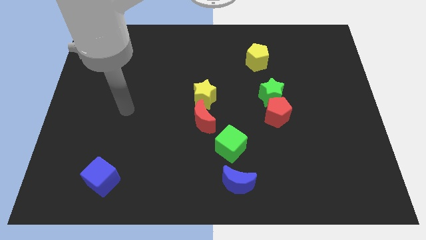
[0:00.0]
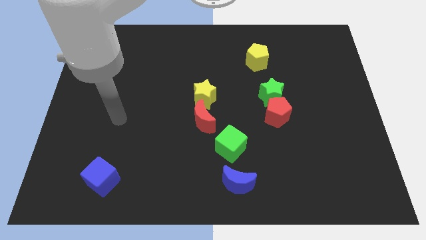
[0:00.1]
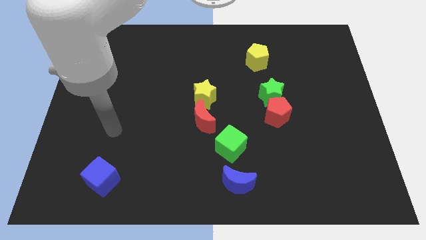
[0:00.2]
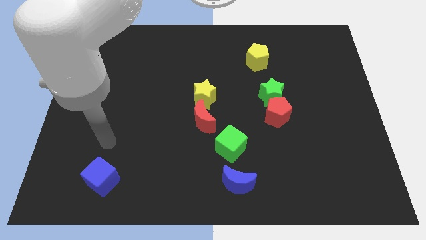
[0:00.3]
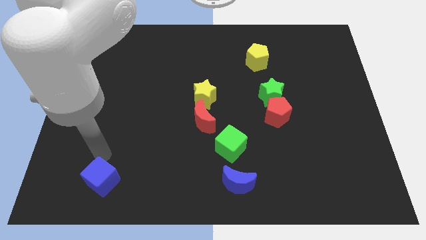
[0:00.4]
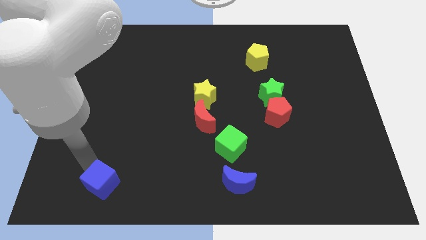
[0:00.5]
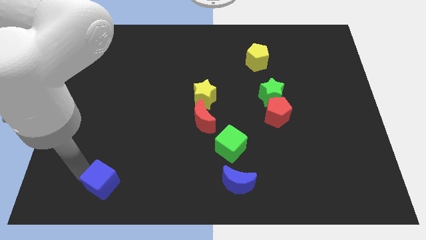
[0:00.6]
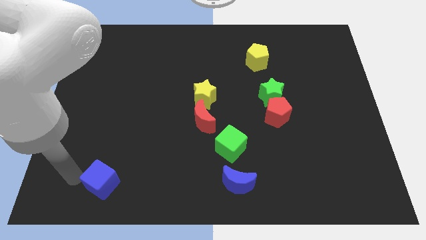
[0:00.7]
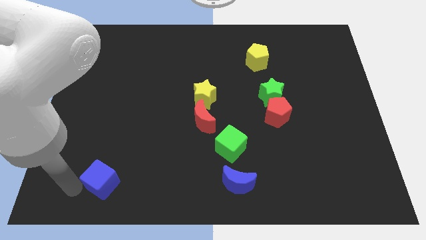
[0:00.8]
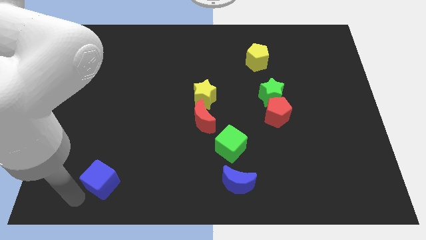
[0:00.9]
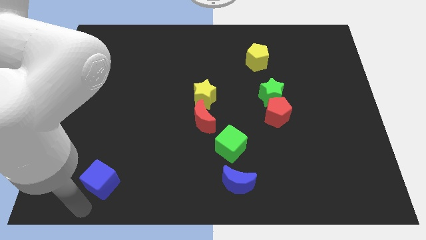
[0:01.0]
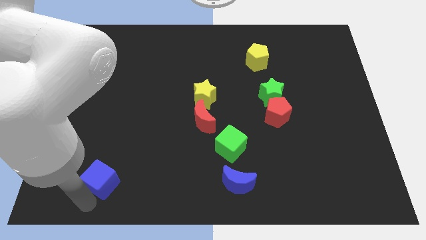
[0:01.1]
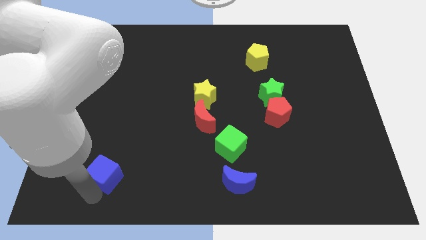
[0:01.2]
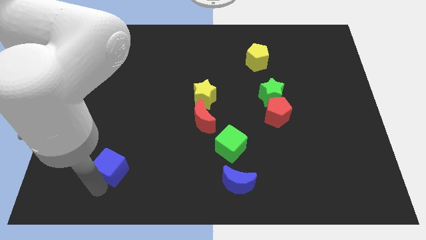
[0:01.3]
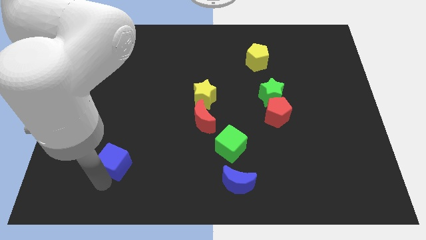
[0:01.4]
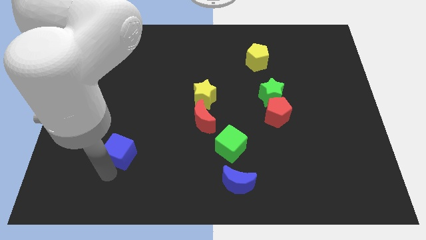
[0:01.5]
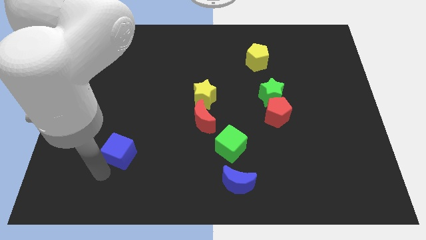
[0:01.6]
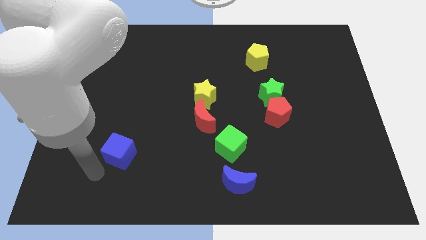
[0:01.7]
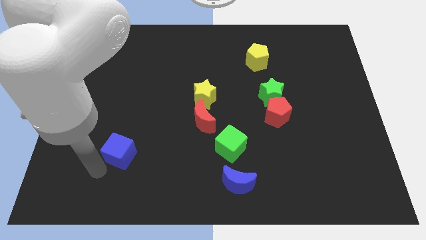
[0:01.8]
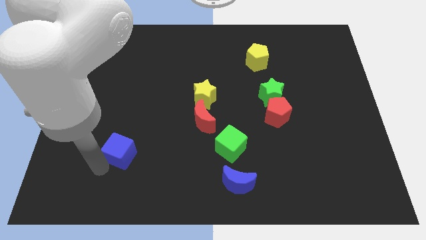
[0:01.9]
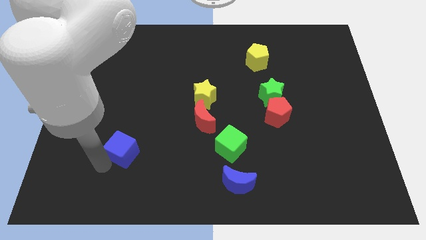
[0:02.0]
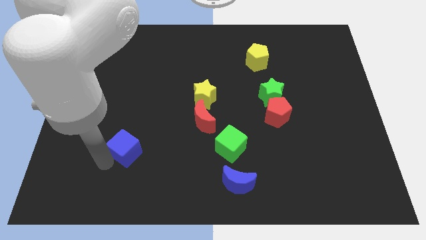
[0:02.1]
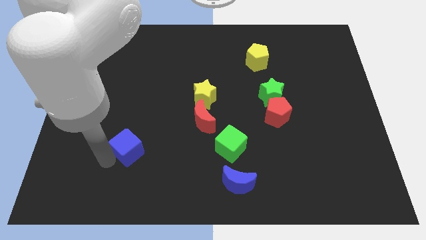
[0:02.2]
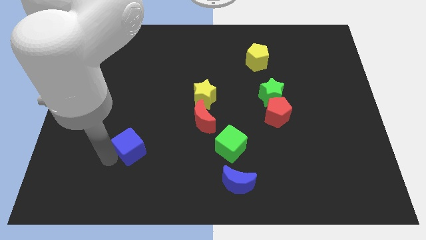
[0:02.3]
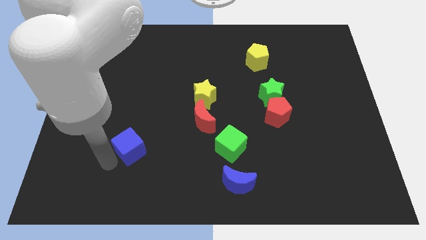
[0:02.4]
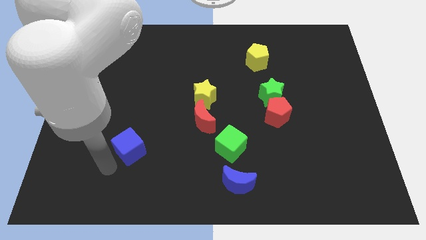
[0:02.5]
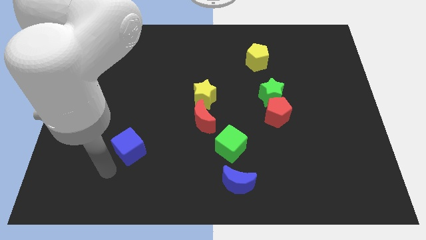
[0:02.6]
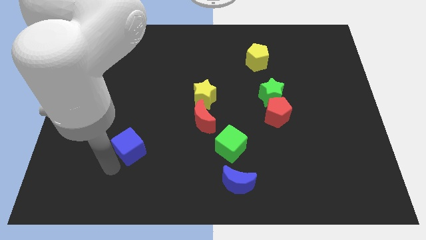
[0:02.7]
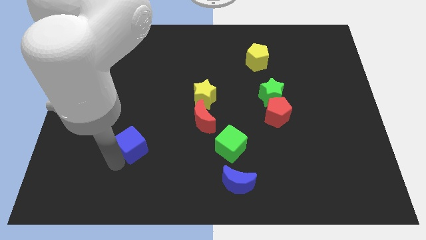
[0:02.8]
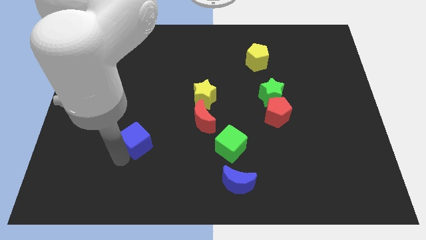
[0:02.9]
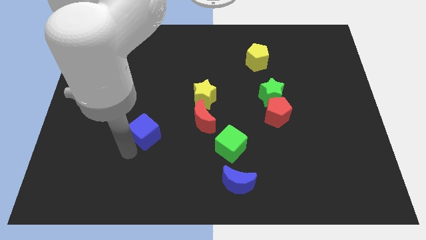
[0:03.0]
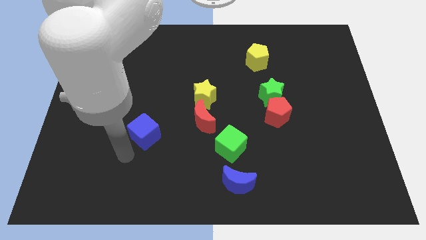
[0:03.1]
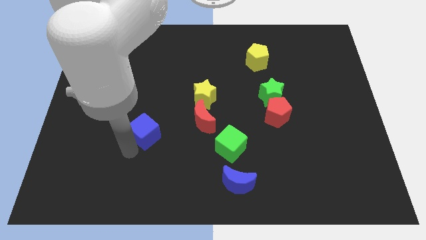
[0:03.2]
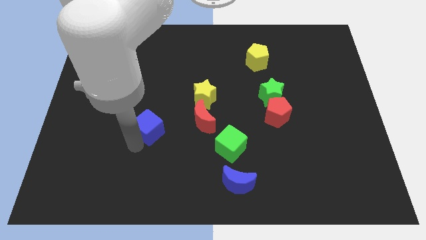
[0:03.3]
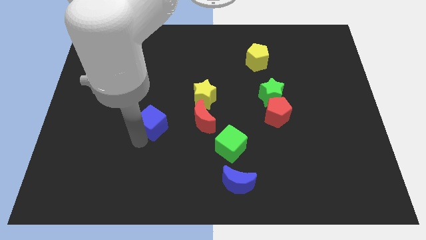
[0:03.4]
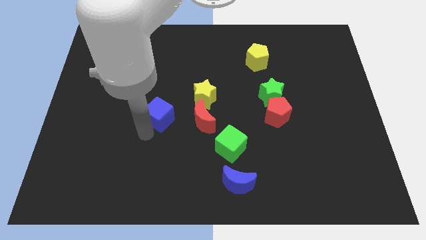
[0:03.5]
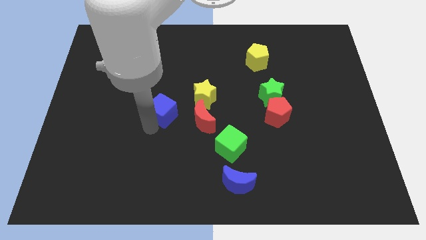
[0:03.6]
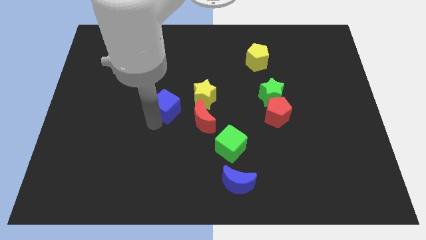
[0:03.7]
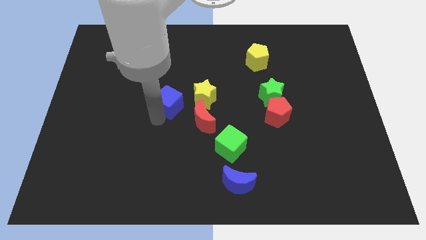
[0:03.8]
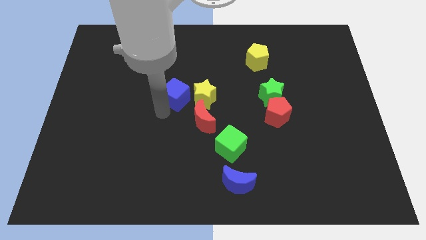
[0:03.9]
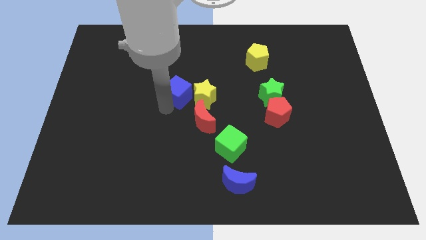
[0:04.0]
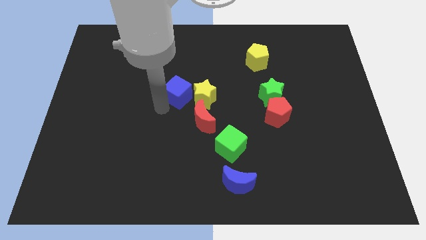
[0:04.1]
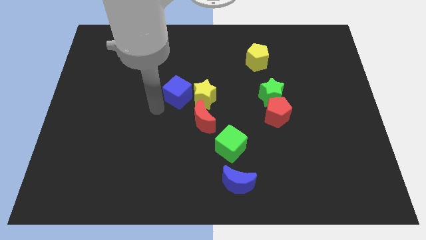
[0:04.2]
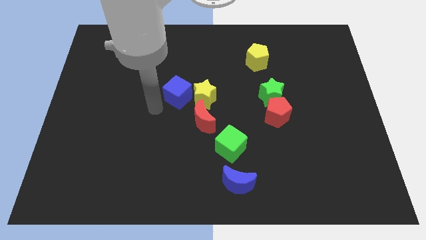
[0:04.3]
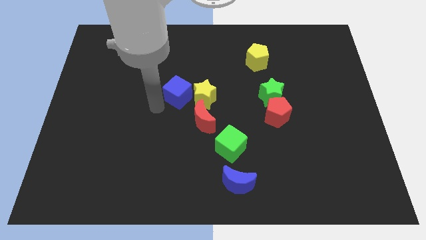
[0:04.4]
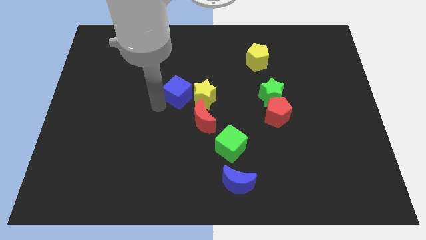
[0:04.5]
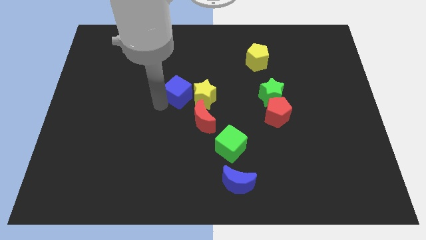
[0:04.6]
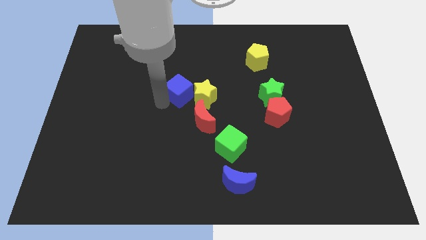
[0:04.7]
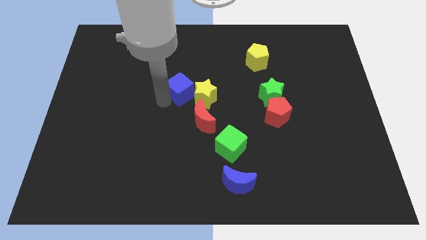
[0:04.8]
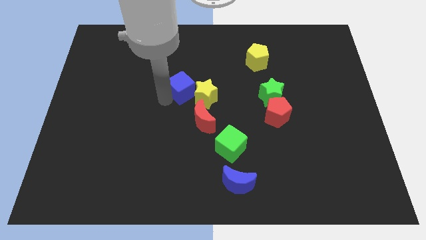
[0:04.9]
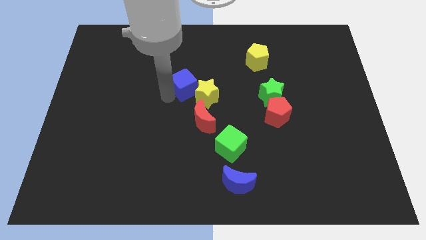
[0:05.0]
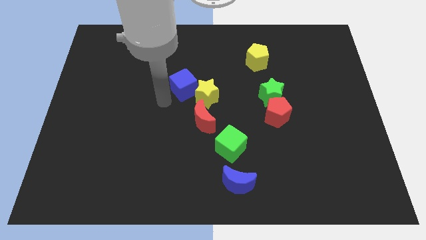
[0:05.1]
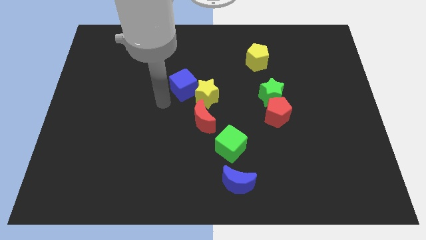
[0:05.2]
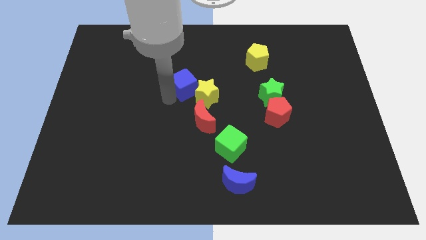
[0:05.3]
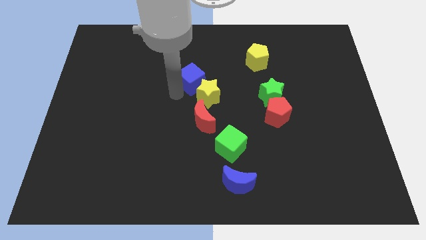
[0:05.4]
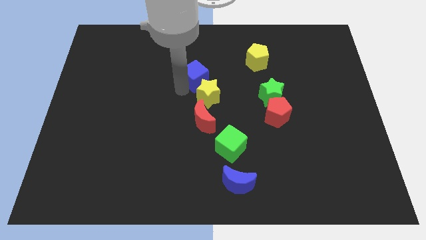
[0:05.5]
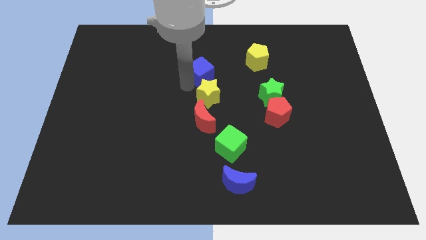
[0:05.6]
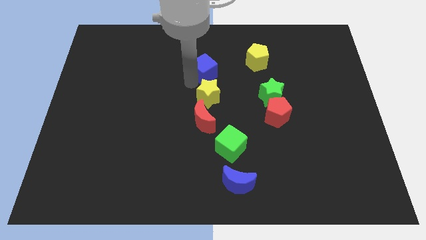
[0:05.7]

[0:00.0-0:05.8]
move the blue cube just left of the yellow pentagon

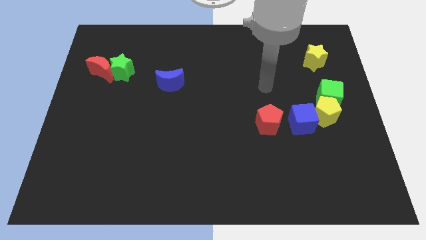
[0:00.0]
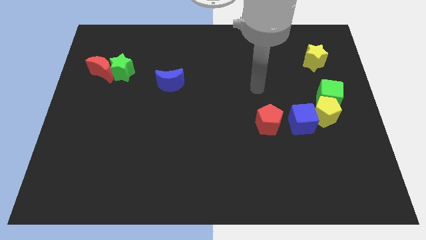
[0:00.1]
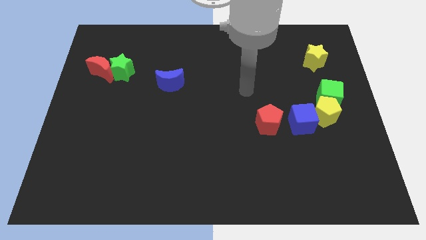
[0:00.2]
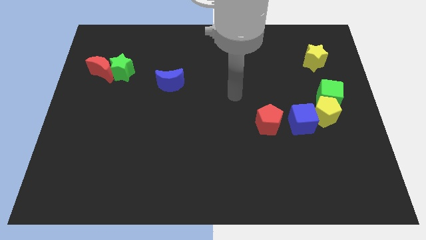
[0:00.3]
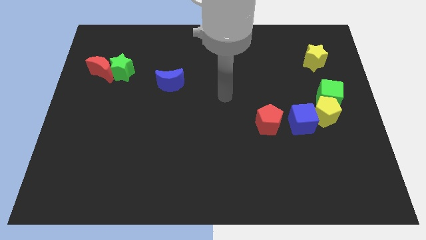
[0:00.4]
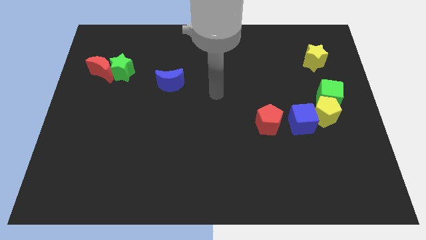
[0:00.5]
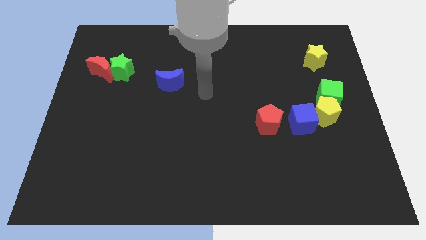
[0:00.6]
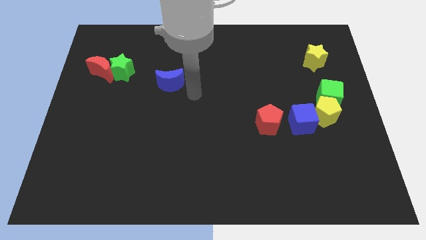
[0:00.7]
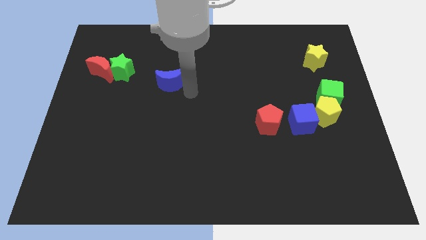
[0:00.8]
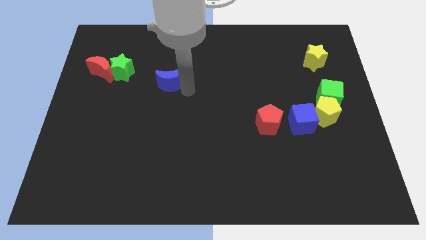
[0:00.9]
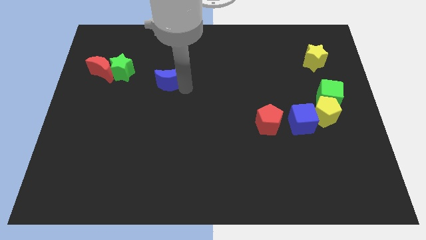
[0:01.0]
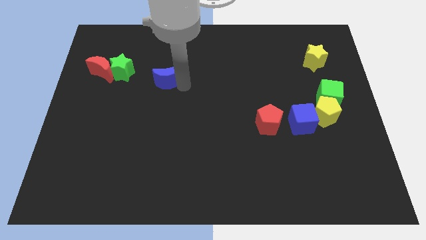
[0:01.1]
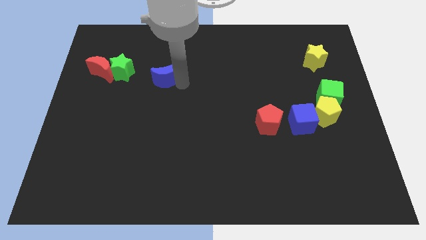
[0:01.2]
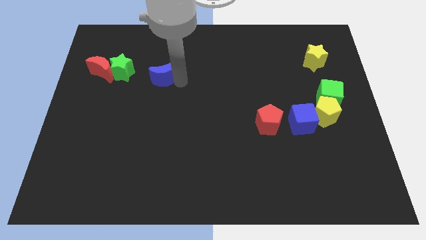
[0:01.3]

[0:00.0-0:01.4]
put the blue moon to the right of the red moon
